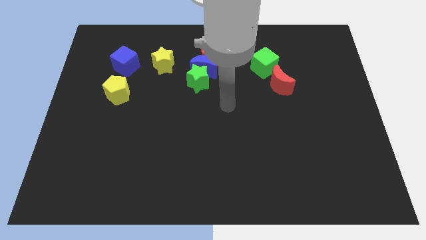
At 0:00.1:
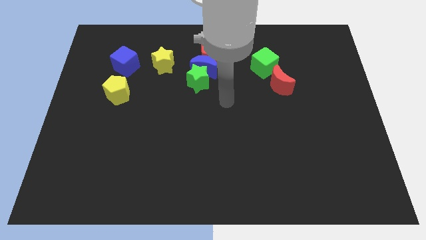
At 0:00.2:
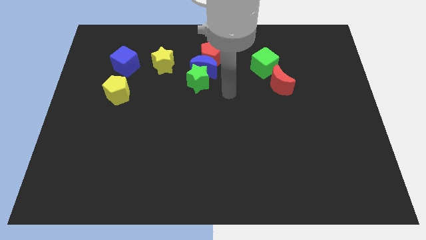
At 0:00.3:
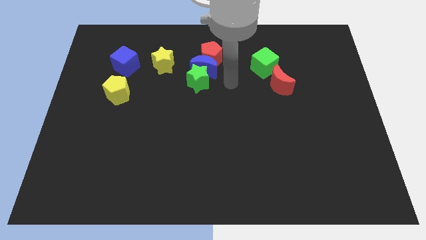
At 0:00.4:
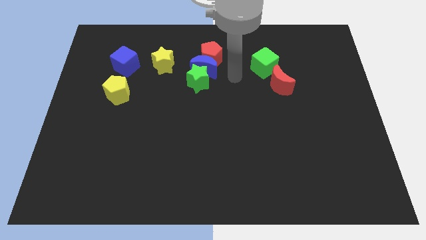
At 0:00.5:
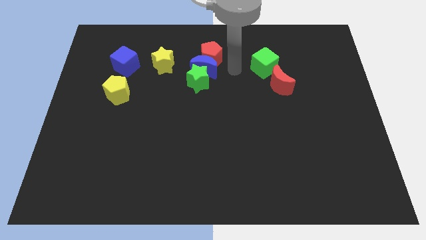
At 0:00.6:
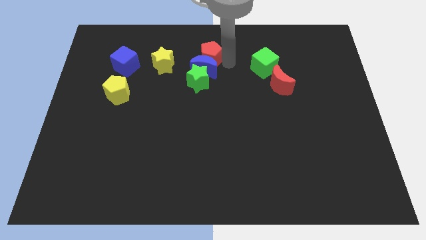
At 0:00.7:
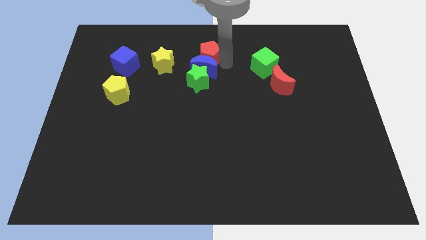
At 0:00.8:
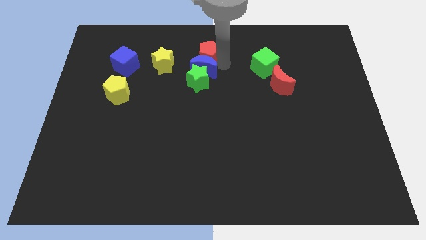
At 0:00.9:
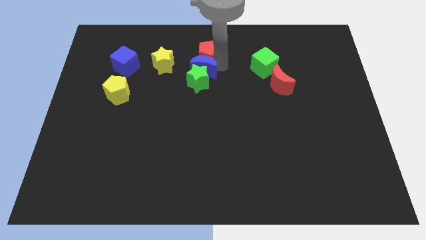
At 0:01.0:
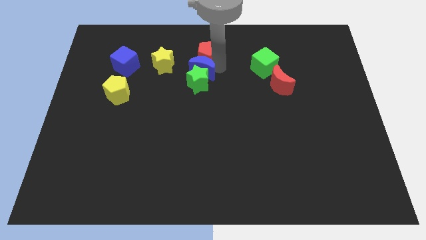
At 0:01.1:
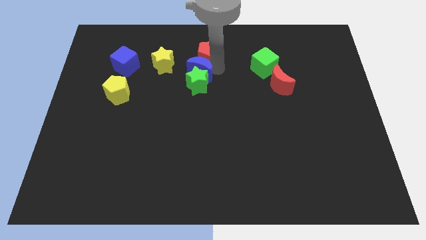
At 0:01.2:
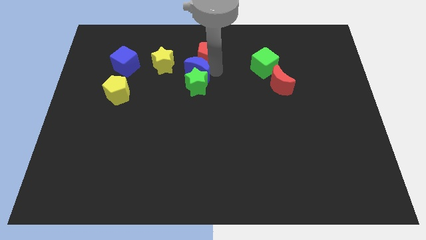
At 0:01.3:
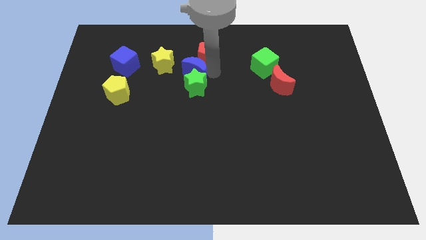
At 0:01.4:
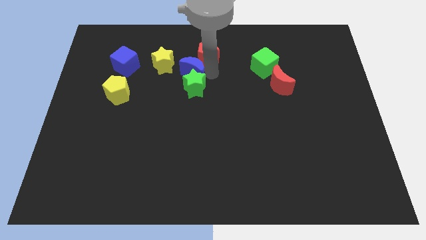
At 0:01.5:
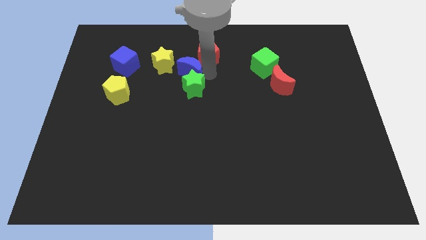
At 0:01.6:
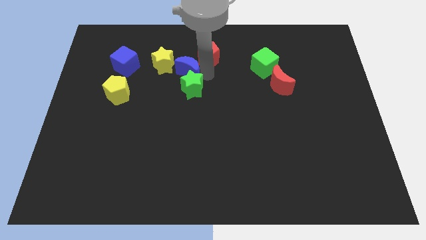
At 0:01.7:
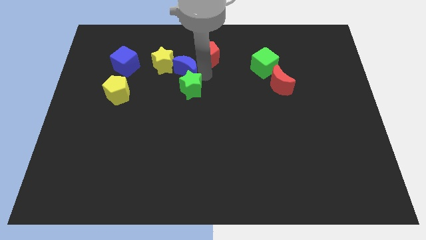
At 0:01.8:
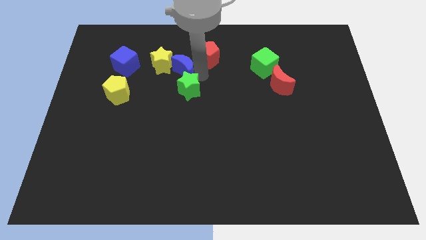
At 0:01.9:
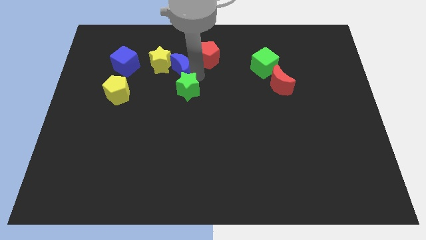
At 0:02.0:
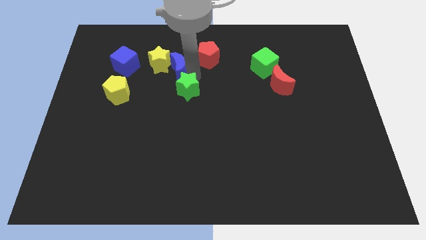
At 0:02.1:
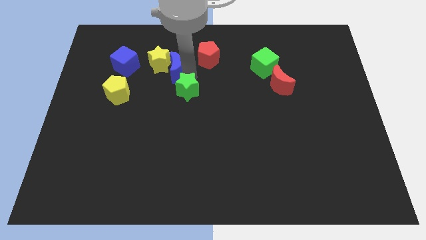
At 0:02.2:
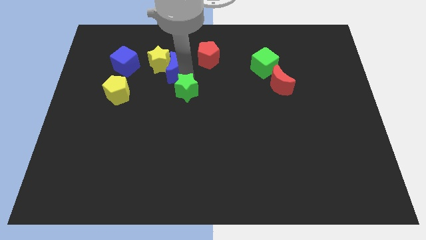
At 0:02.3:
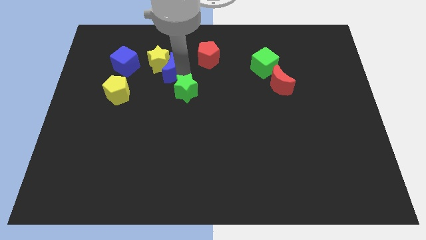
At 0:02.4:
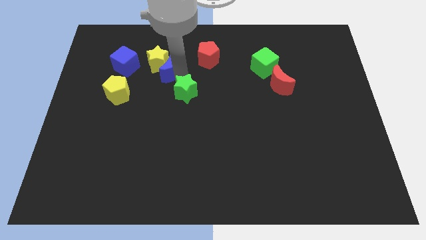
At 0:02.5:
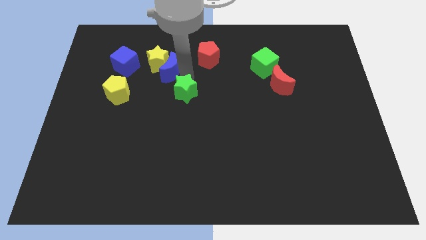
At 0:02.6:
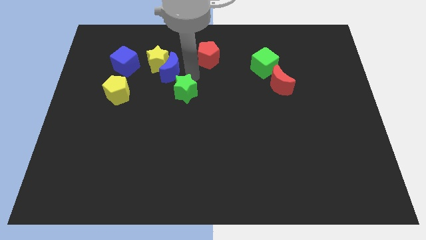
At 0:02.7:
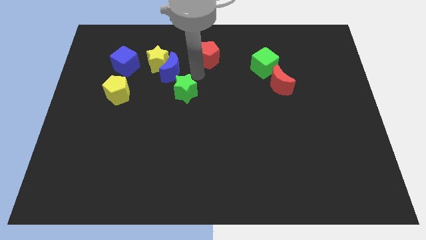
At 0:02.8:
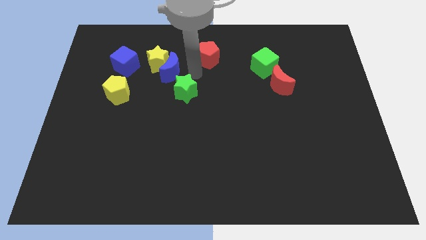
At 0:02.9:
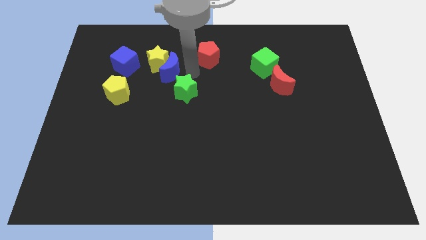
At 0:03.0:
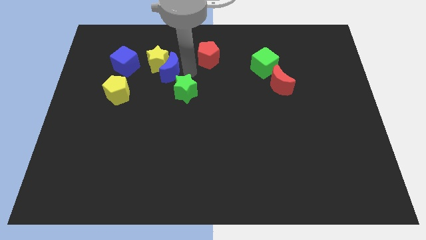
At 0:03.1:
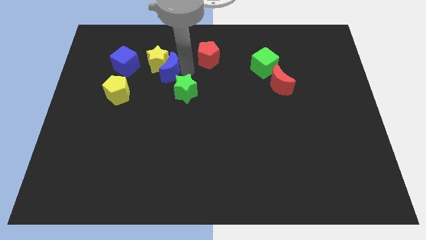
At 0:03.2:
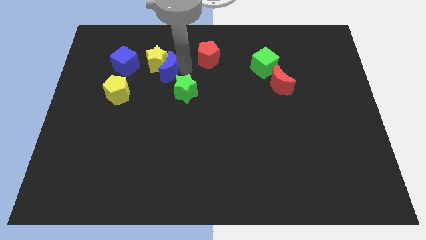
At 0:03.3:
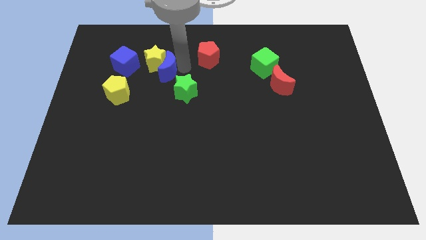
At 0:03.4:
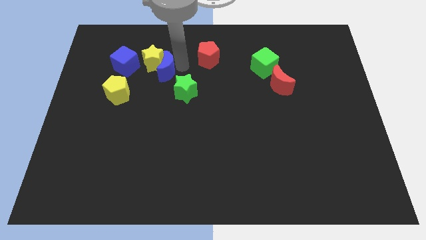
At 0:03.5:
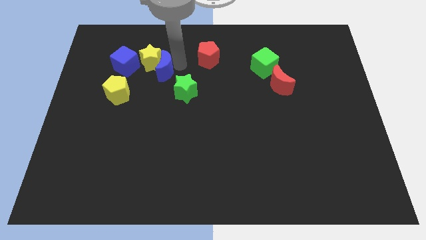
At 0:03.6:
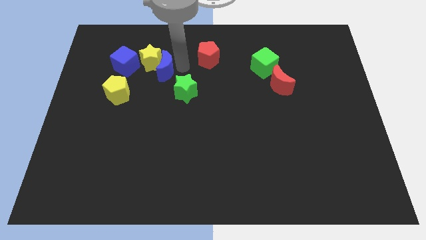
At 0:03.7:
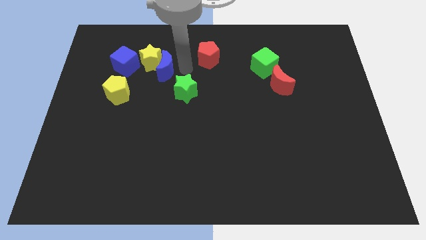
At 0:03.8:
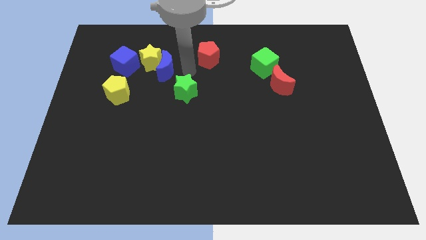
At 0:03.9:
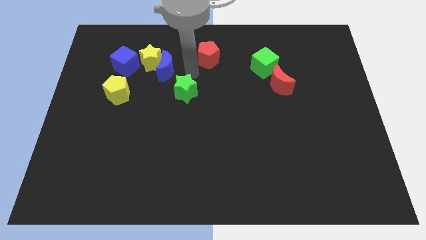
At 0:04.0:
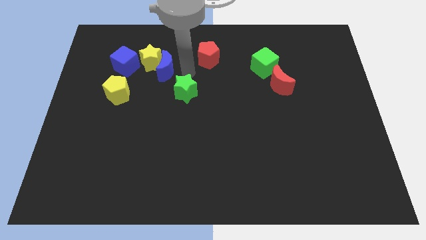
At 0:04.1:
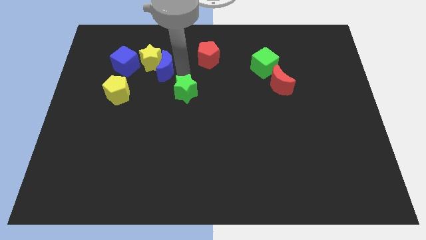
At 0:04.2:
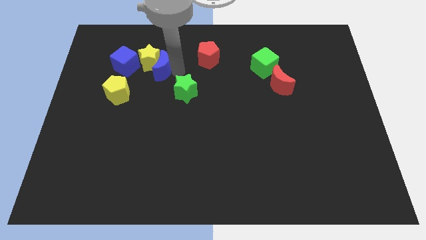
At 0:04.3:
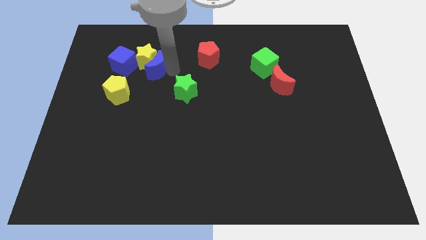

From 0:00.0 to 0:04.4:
separate the blue moon from the green star and red pentagon

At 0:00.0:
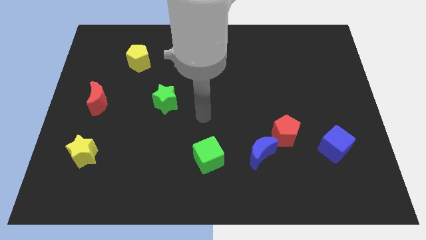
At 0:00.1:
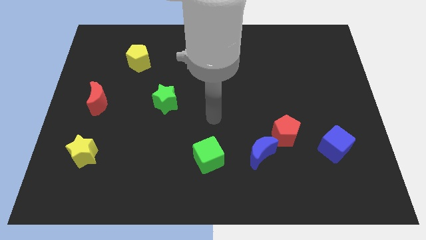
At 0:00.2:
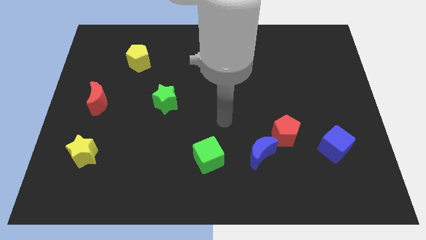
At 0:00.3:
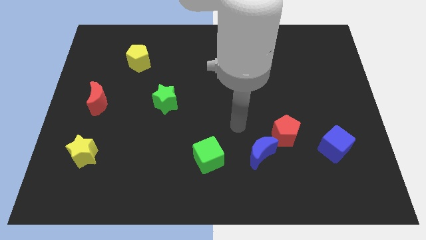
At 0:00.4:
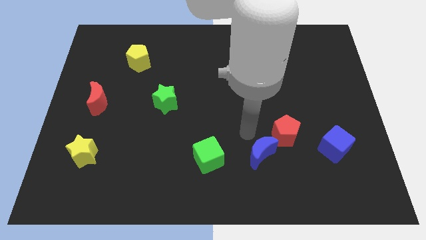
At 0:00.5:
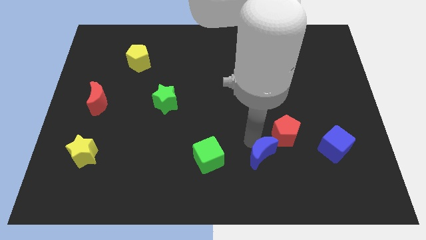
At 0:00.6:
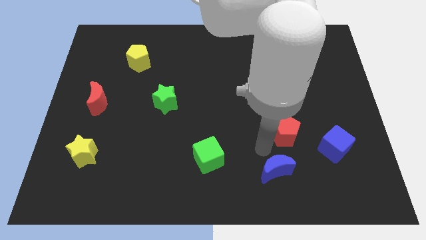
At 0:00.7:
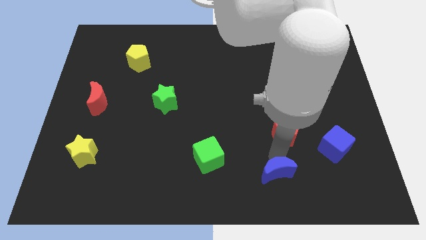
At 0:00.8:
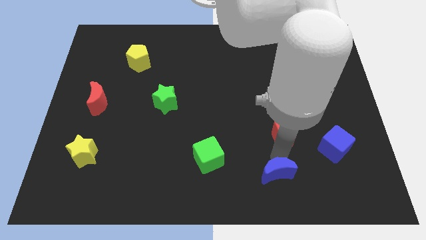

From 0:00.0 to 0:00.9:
separate the red pentagon from the blue moon

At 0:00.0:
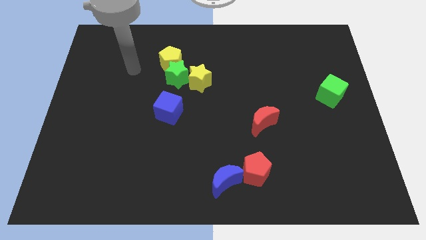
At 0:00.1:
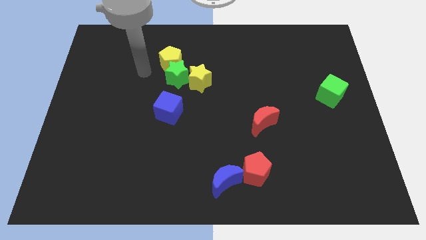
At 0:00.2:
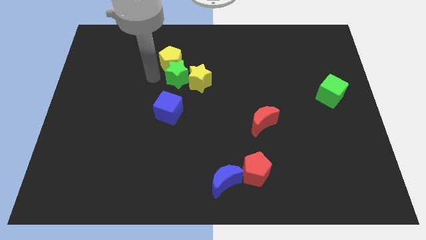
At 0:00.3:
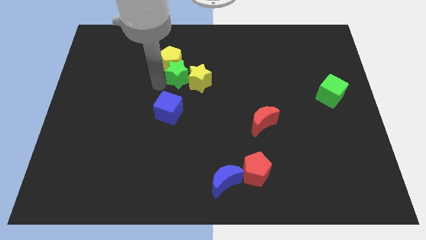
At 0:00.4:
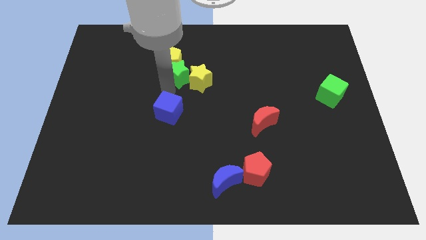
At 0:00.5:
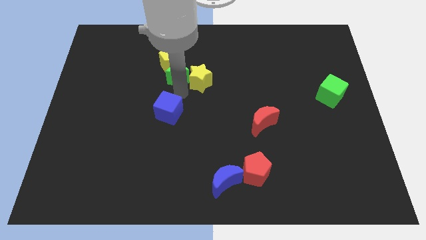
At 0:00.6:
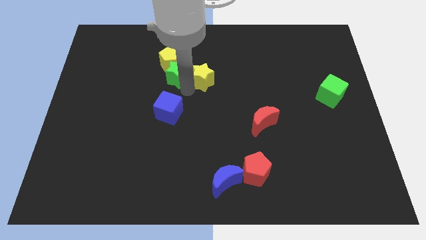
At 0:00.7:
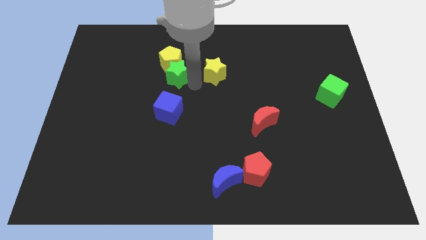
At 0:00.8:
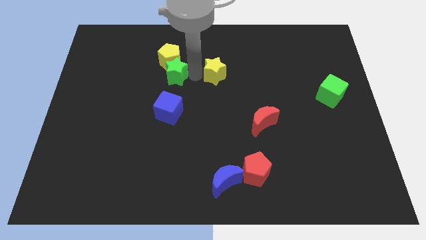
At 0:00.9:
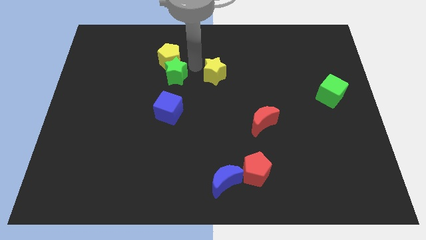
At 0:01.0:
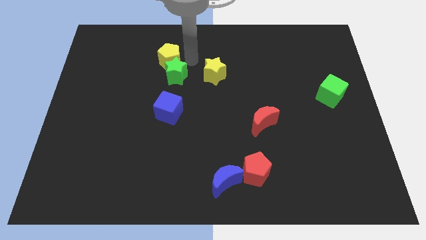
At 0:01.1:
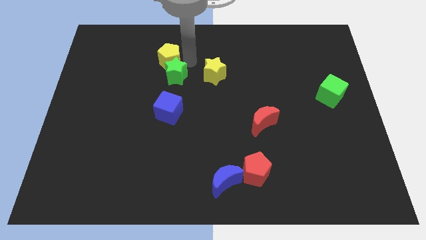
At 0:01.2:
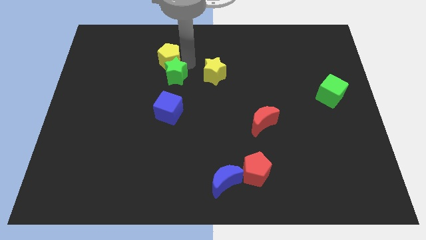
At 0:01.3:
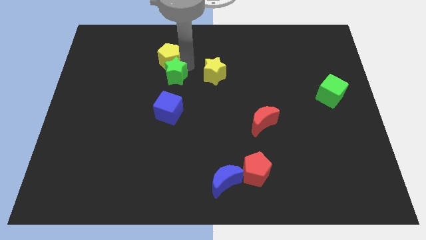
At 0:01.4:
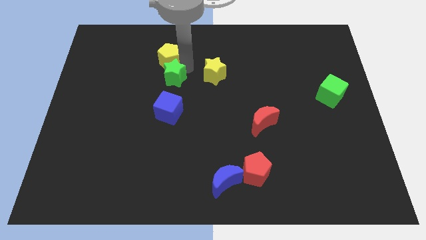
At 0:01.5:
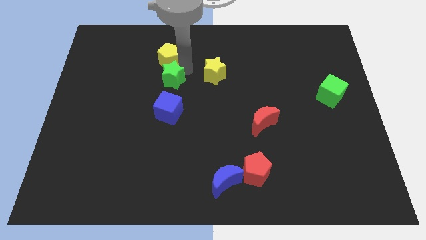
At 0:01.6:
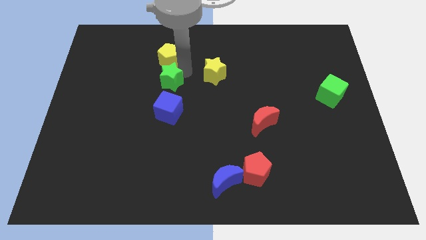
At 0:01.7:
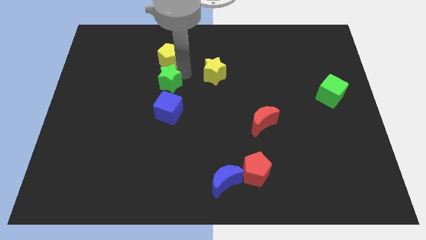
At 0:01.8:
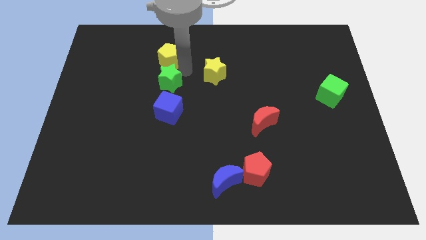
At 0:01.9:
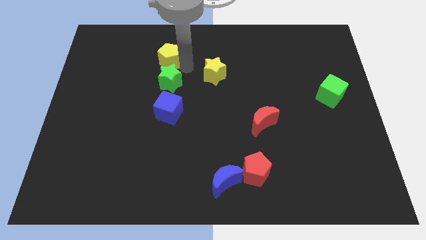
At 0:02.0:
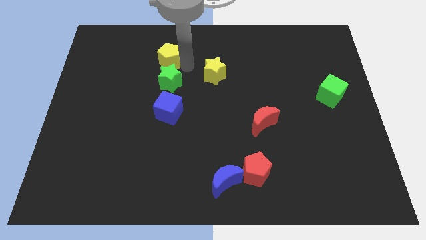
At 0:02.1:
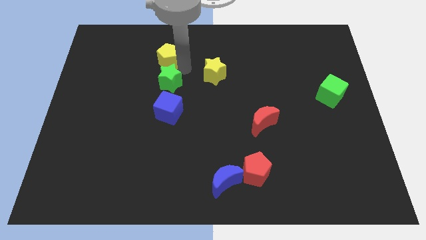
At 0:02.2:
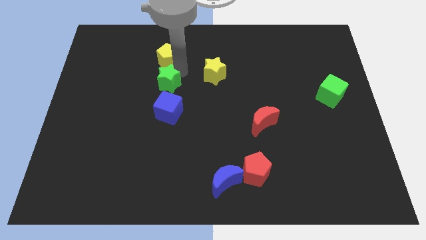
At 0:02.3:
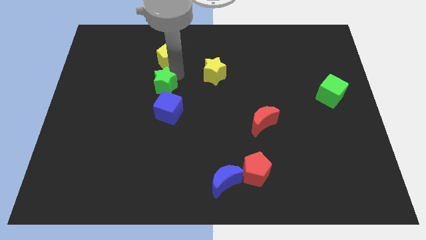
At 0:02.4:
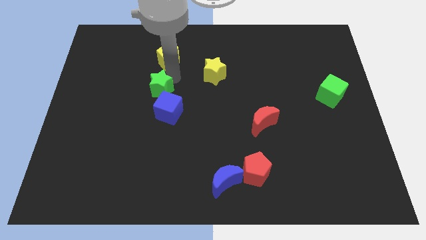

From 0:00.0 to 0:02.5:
separate the green star from the yellow pentagon and yellow star

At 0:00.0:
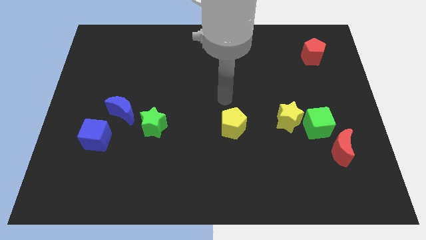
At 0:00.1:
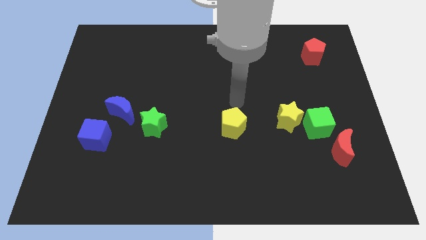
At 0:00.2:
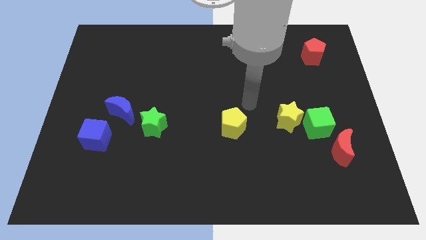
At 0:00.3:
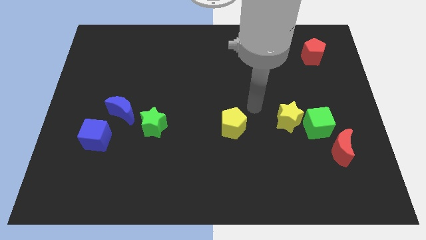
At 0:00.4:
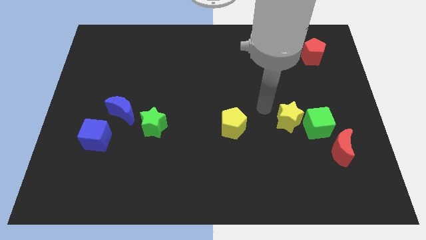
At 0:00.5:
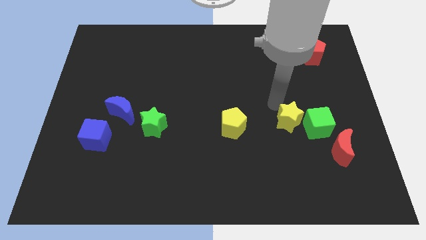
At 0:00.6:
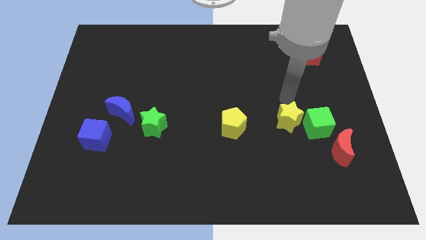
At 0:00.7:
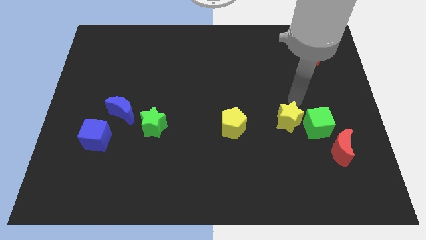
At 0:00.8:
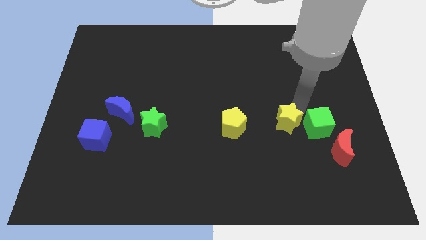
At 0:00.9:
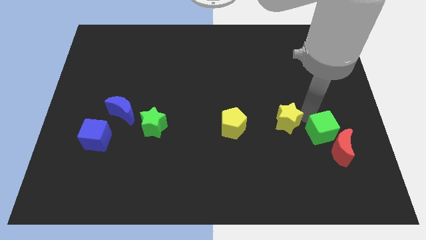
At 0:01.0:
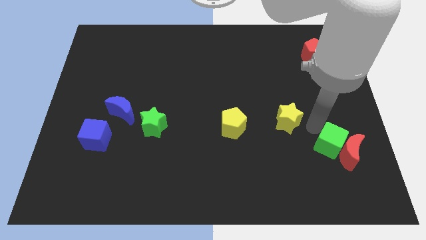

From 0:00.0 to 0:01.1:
pull the yellow star apart from the green cube

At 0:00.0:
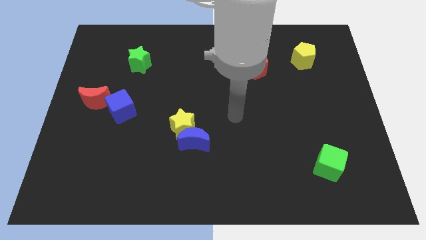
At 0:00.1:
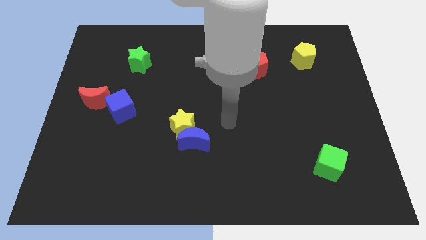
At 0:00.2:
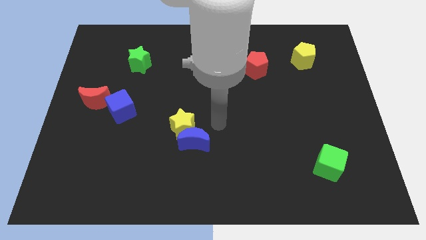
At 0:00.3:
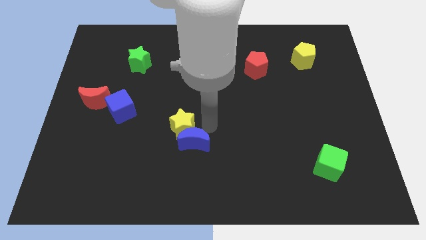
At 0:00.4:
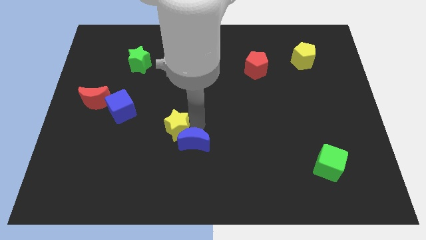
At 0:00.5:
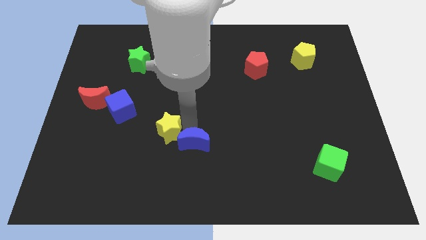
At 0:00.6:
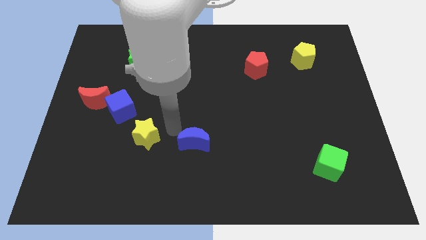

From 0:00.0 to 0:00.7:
move the blue moon away from the yellow star
